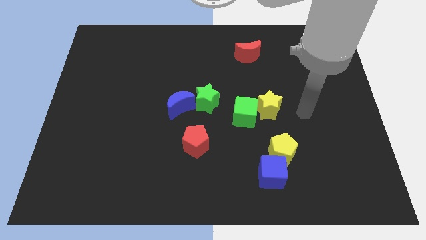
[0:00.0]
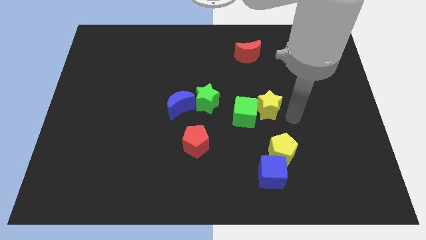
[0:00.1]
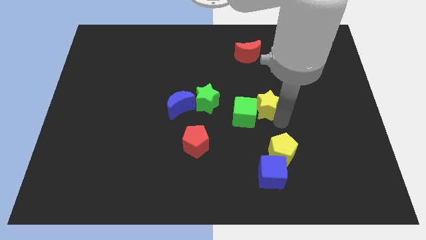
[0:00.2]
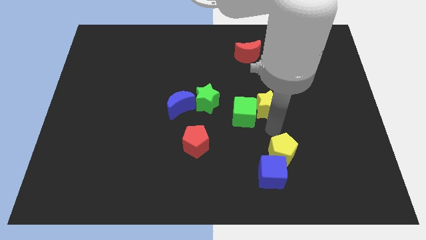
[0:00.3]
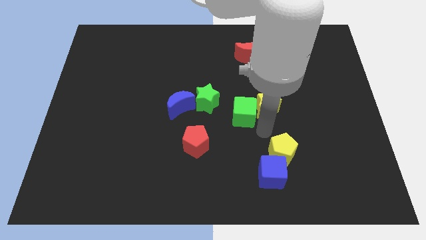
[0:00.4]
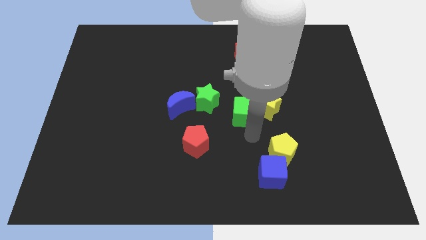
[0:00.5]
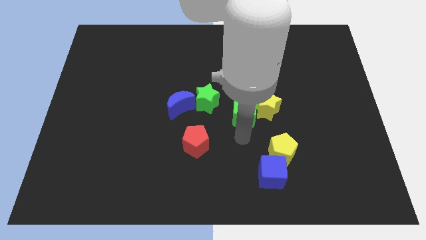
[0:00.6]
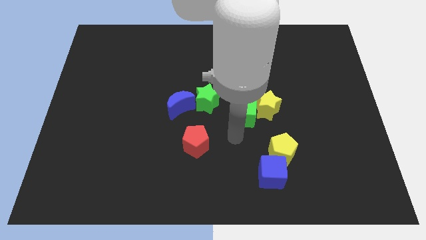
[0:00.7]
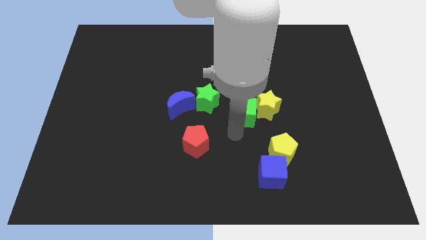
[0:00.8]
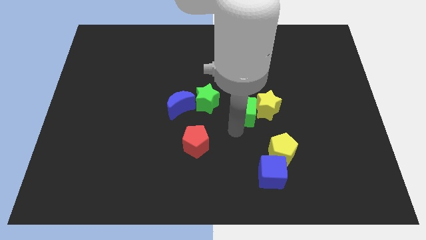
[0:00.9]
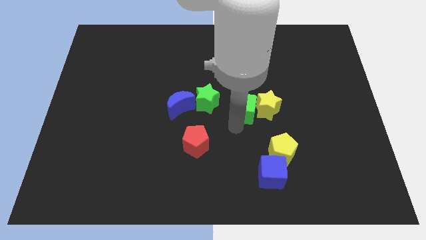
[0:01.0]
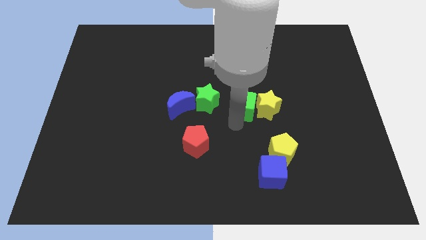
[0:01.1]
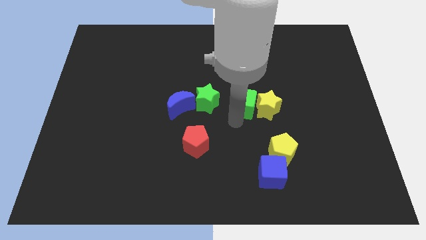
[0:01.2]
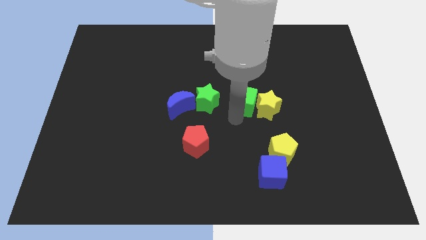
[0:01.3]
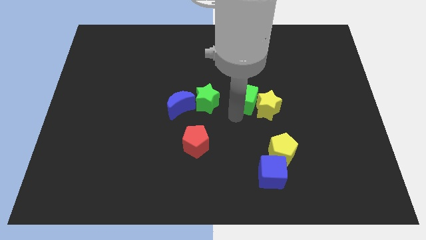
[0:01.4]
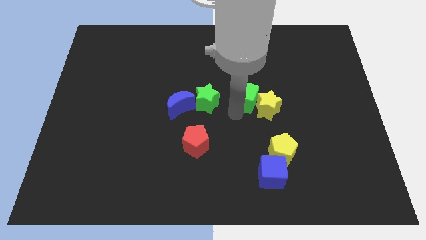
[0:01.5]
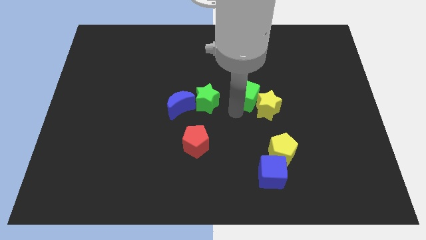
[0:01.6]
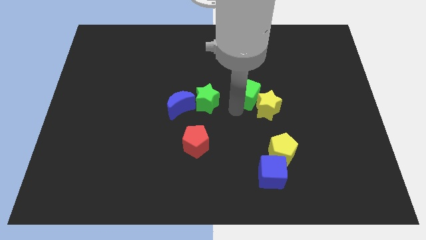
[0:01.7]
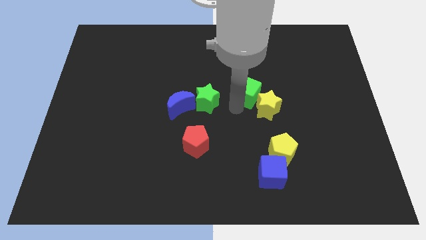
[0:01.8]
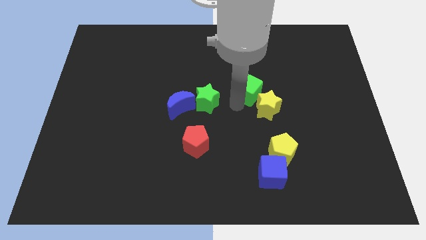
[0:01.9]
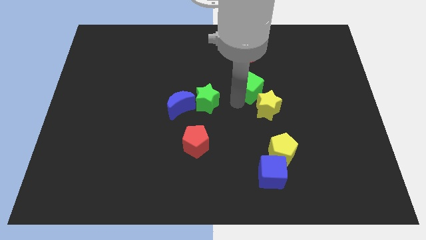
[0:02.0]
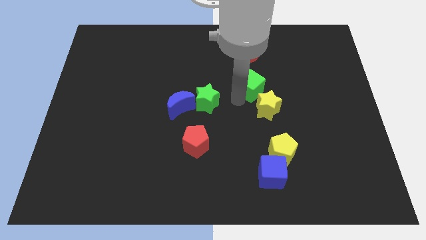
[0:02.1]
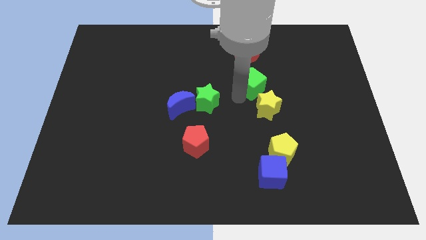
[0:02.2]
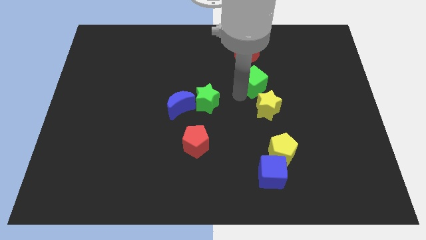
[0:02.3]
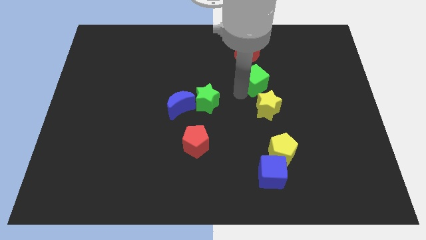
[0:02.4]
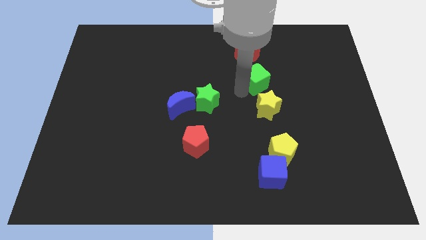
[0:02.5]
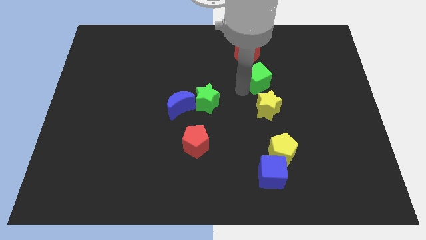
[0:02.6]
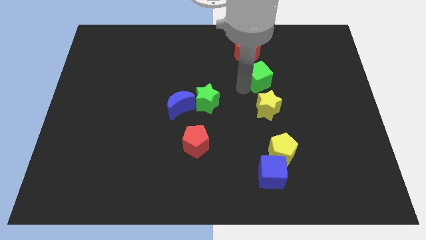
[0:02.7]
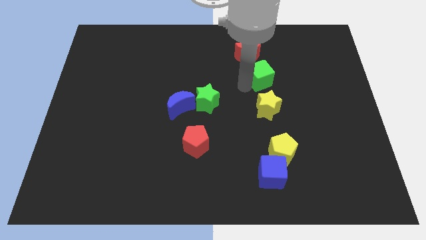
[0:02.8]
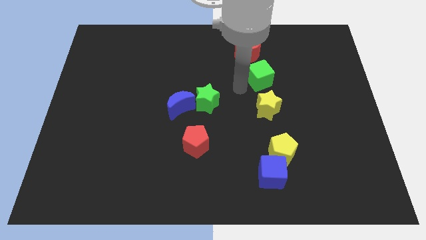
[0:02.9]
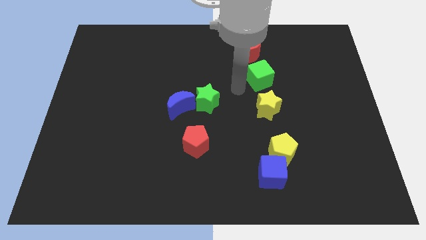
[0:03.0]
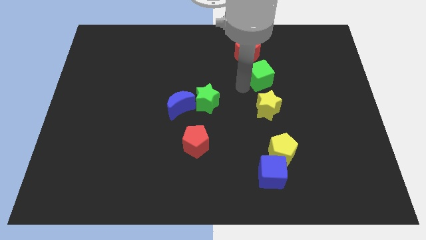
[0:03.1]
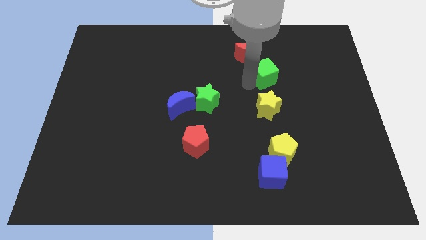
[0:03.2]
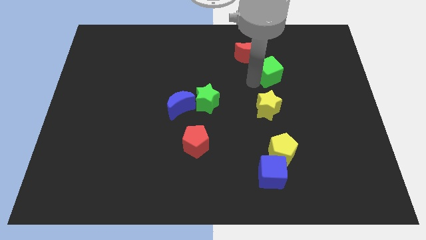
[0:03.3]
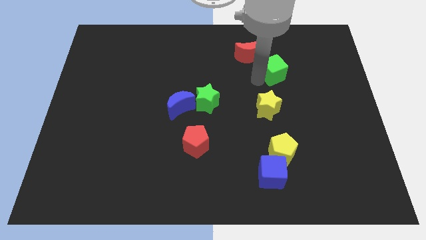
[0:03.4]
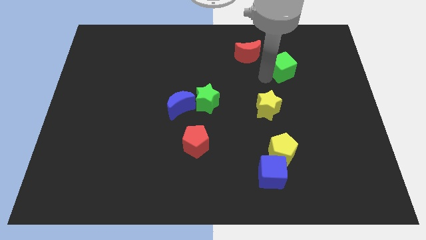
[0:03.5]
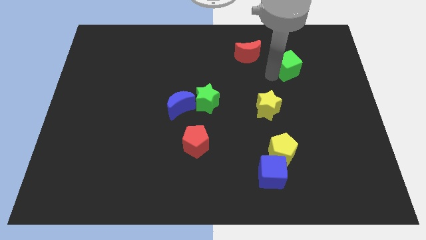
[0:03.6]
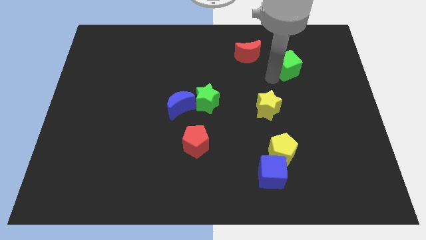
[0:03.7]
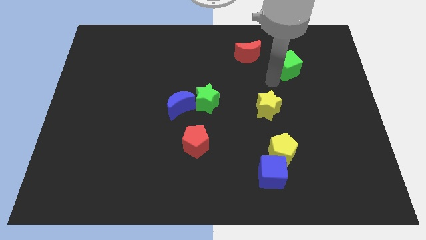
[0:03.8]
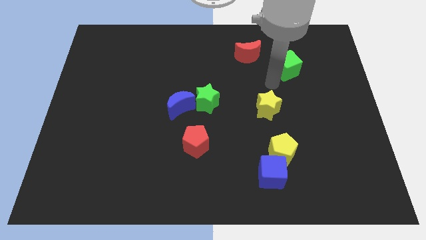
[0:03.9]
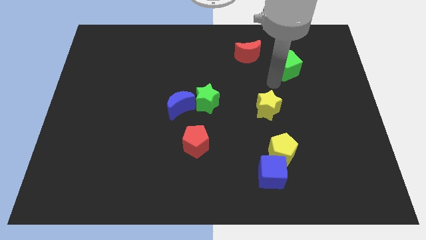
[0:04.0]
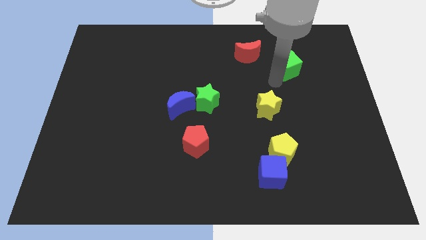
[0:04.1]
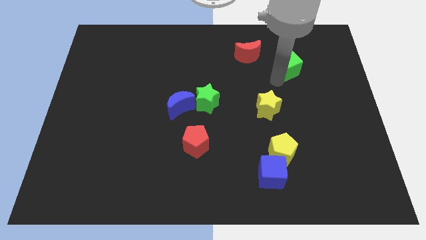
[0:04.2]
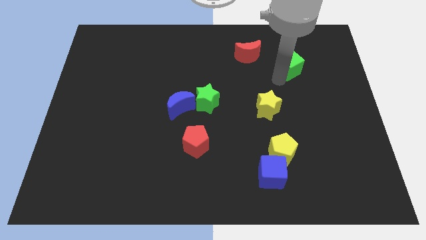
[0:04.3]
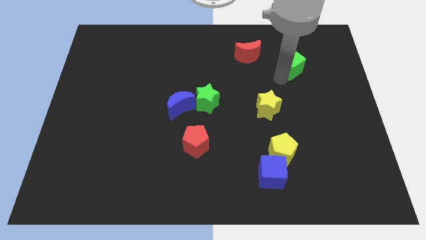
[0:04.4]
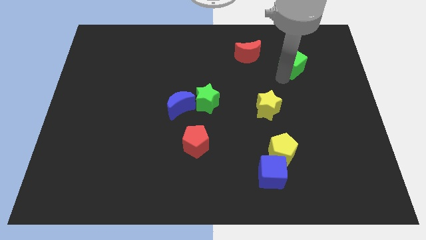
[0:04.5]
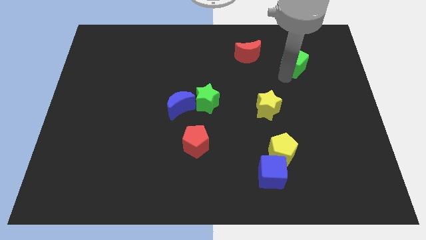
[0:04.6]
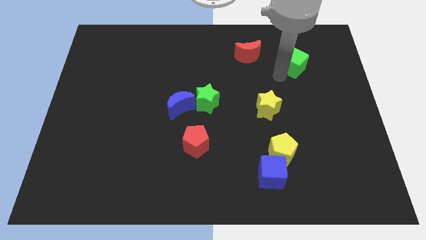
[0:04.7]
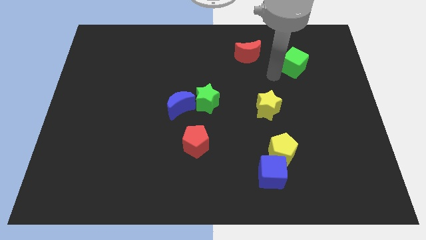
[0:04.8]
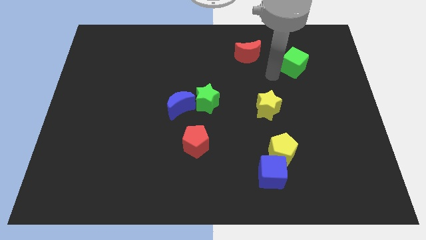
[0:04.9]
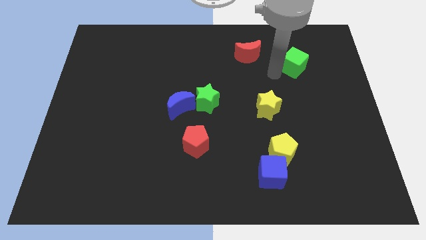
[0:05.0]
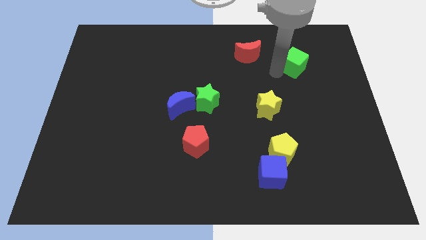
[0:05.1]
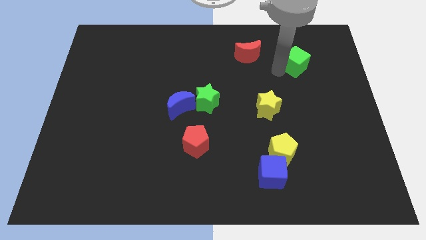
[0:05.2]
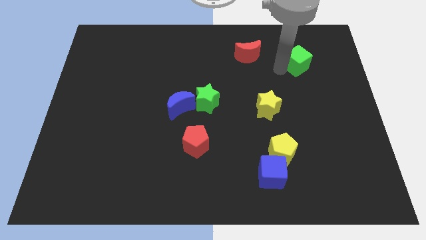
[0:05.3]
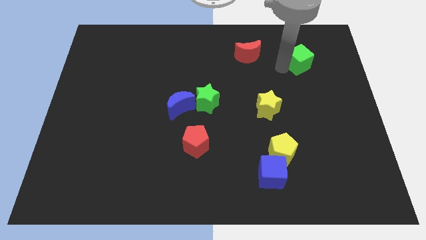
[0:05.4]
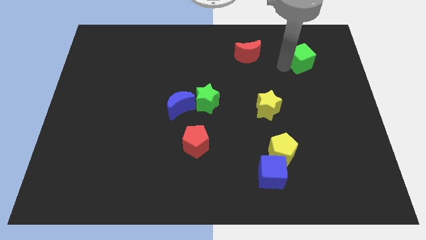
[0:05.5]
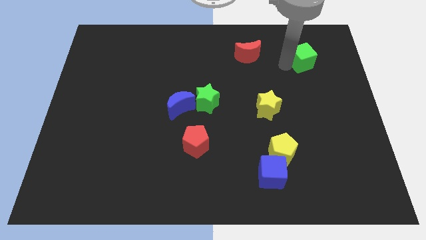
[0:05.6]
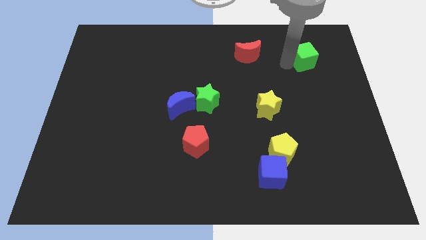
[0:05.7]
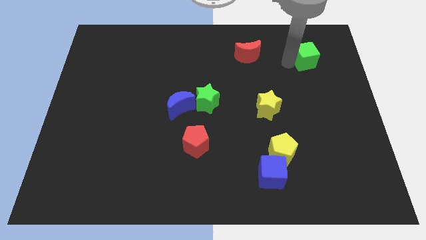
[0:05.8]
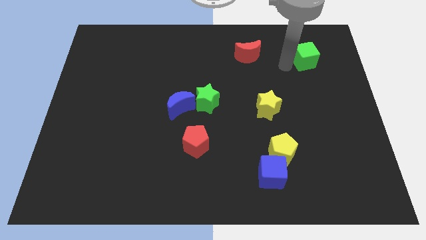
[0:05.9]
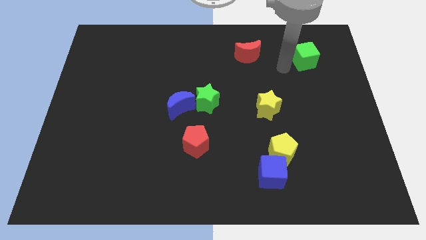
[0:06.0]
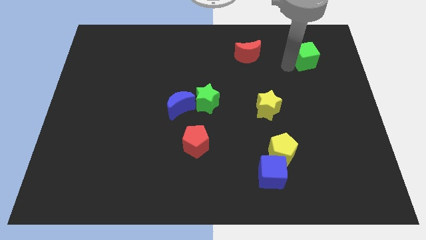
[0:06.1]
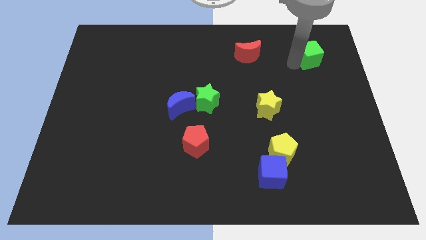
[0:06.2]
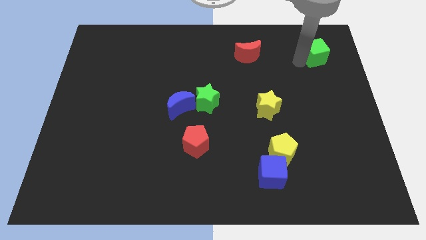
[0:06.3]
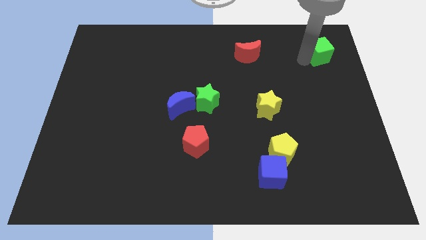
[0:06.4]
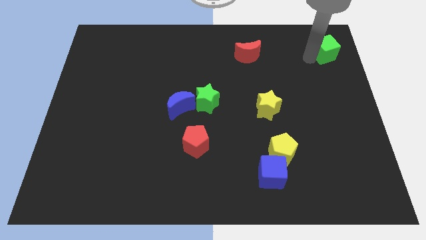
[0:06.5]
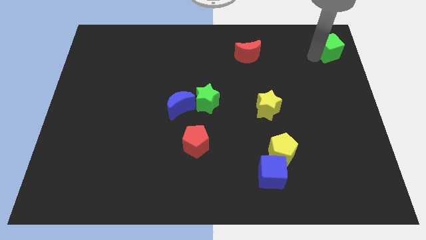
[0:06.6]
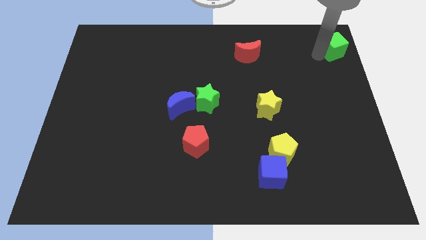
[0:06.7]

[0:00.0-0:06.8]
put the green cube to the top right
